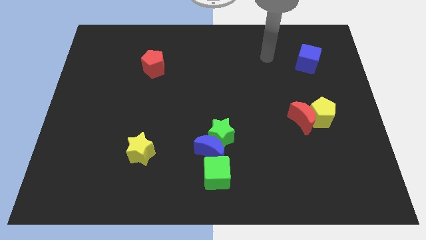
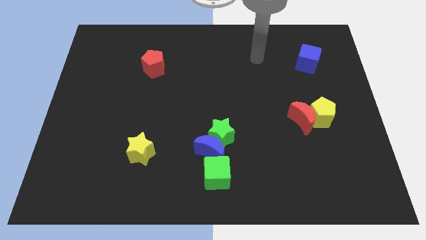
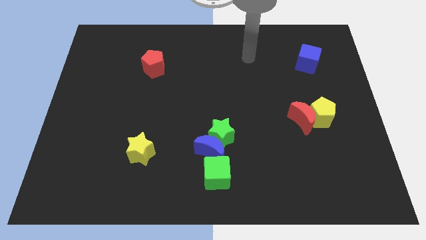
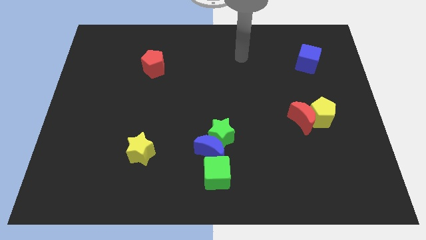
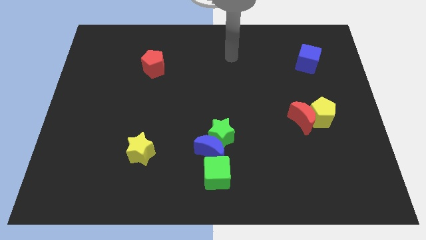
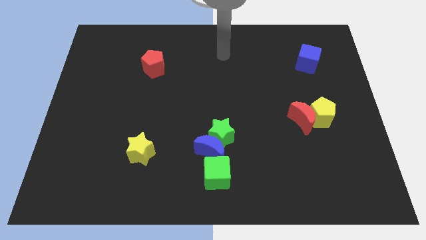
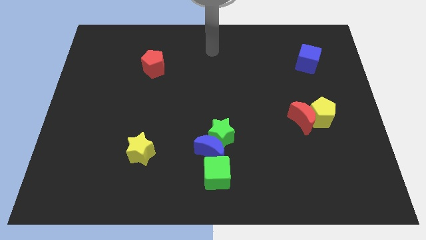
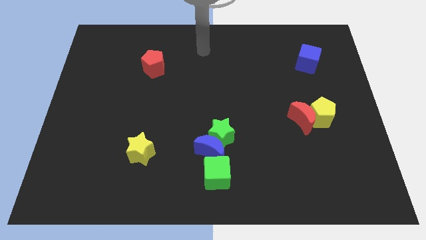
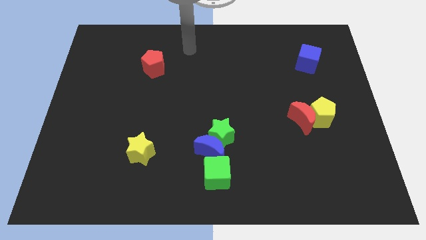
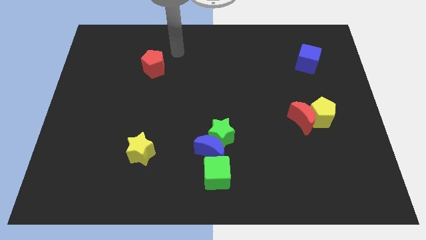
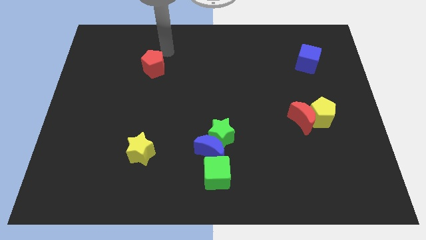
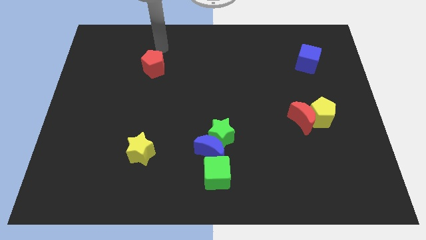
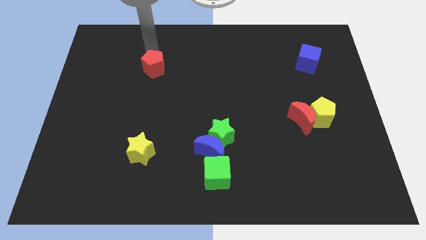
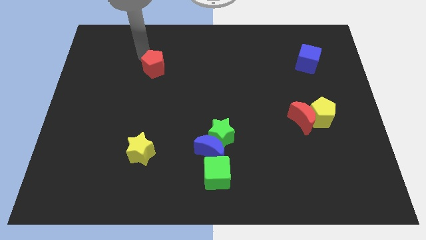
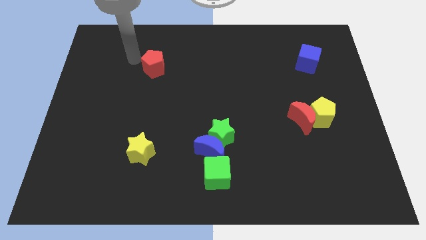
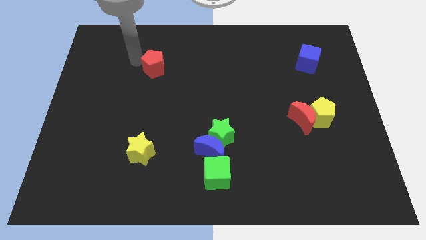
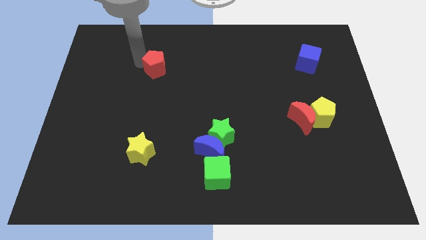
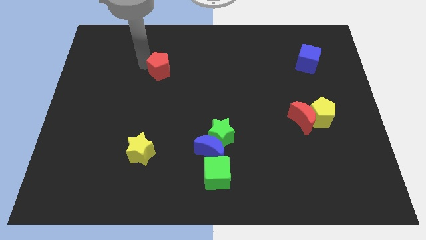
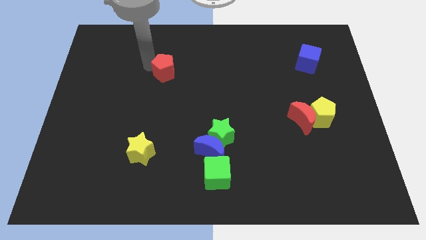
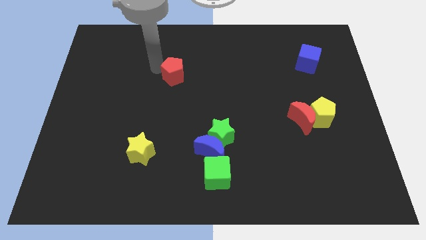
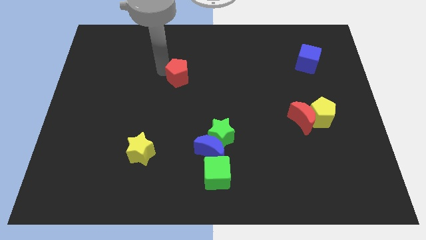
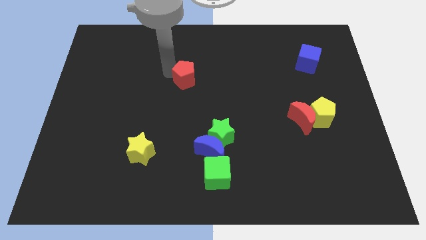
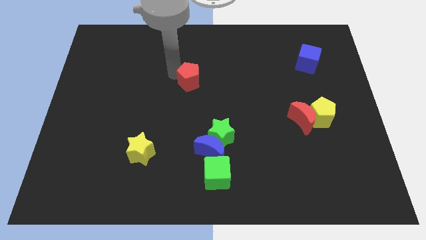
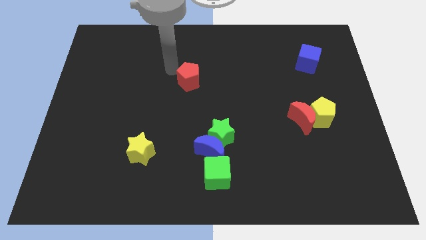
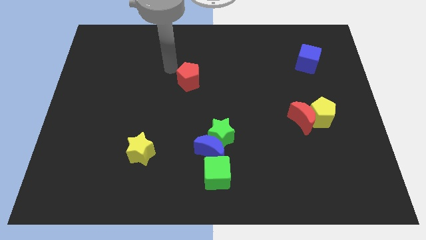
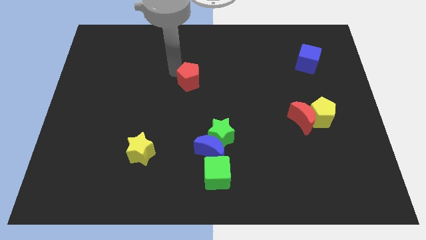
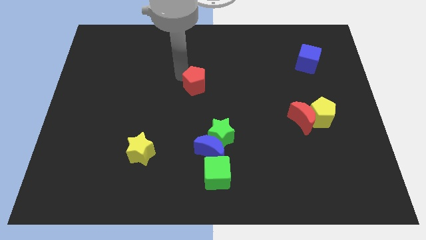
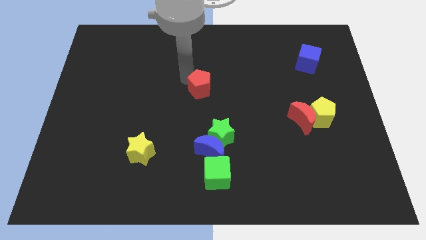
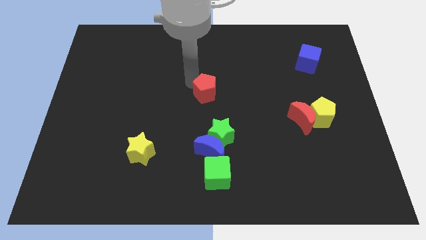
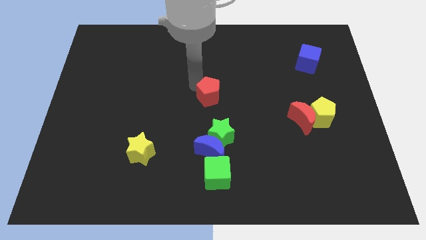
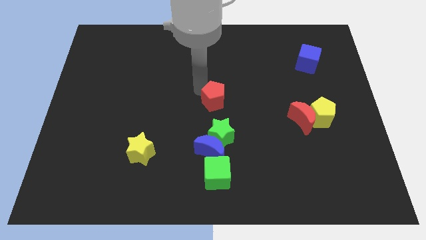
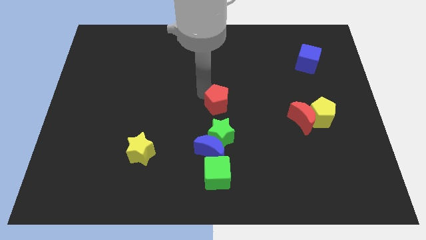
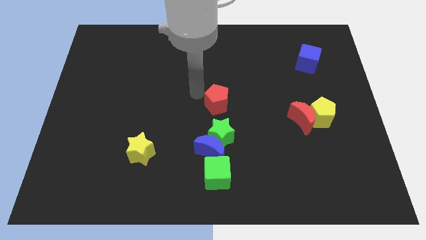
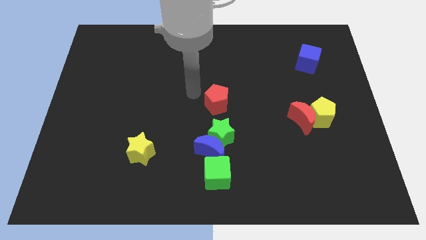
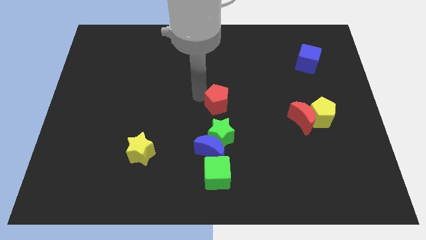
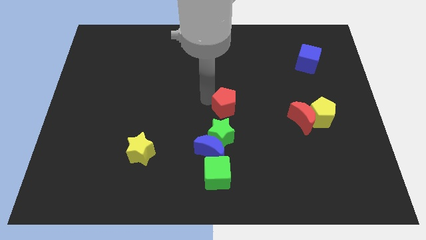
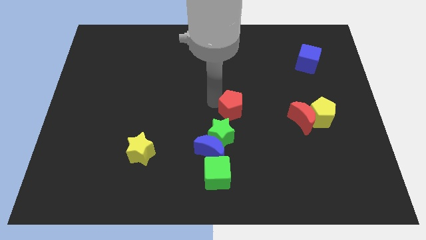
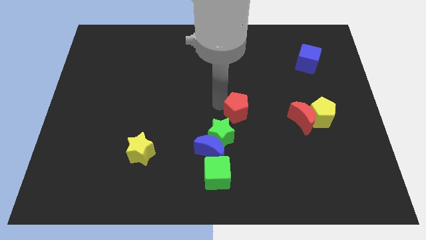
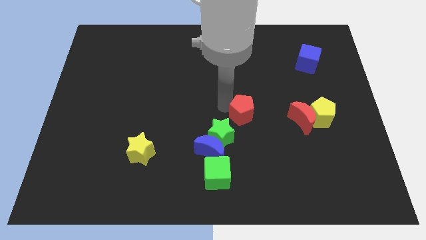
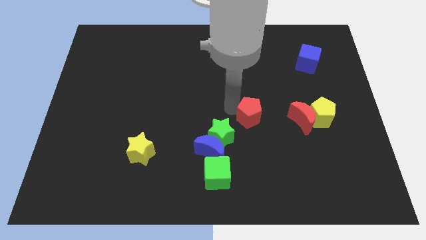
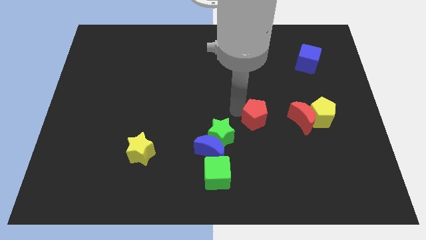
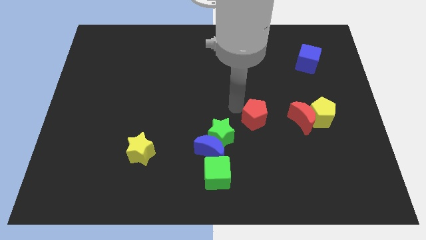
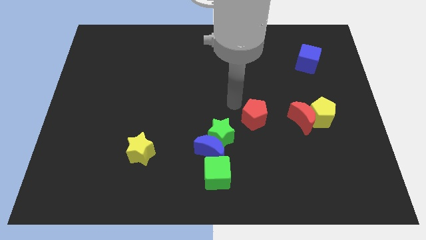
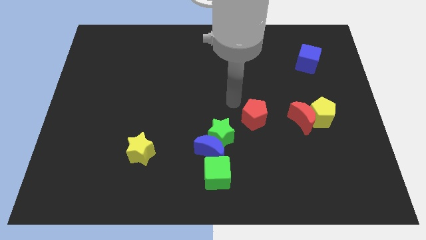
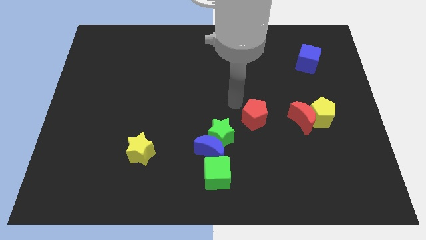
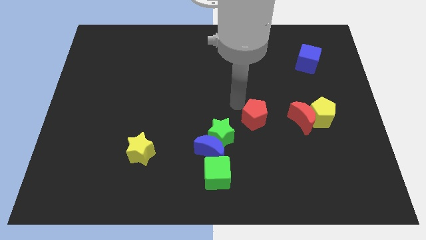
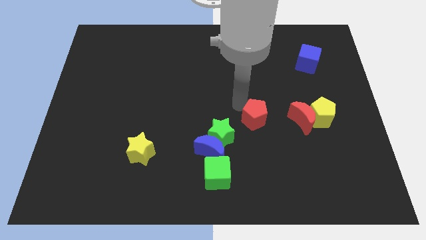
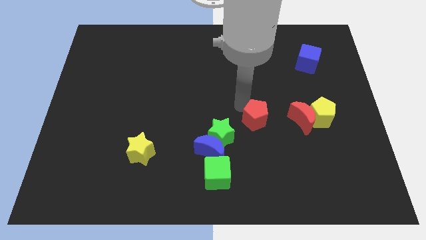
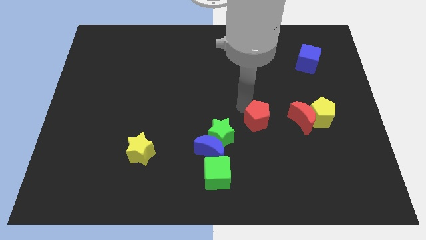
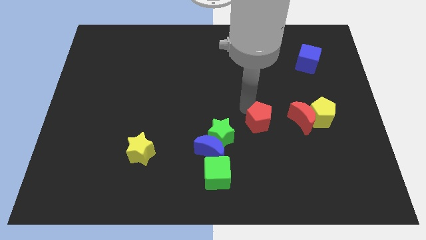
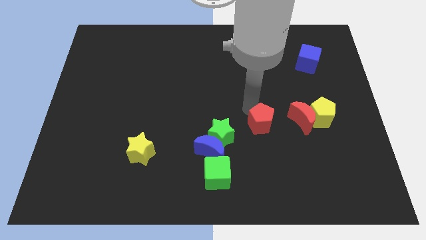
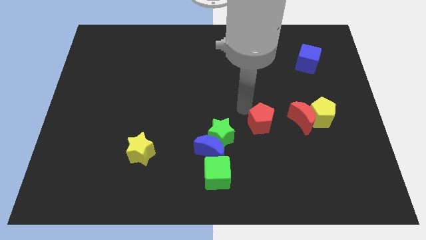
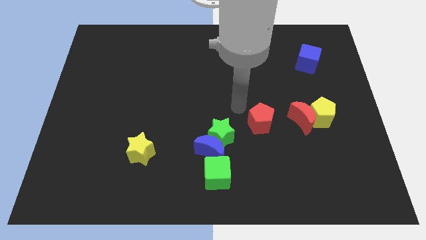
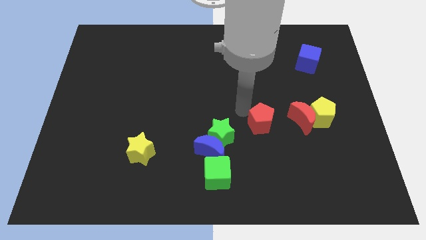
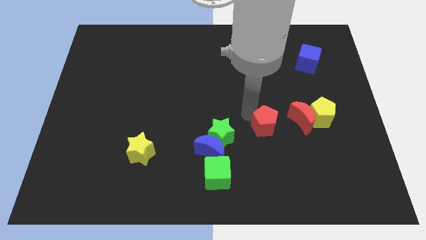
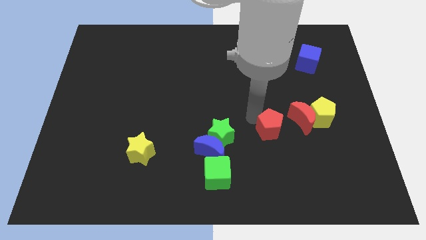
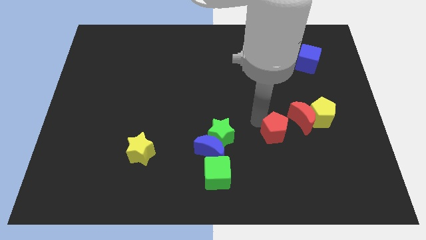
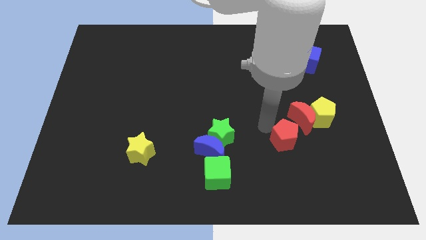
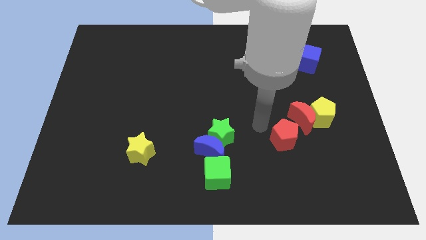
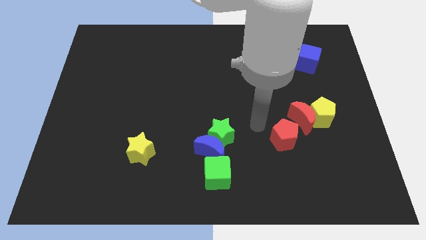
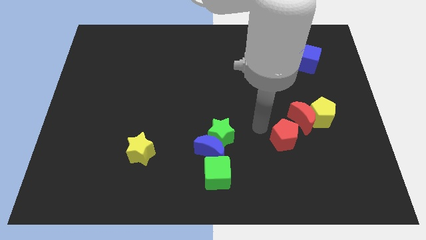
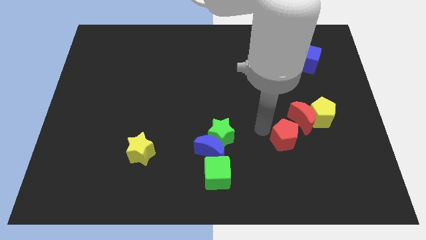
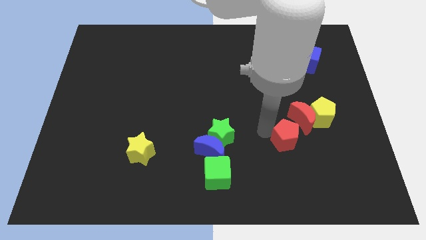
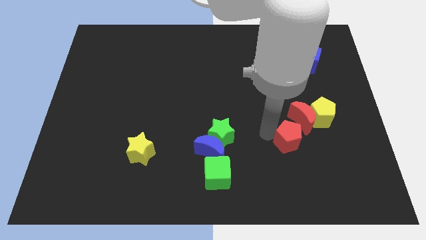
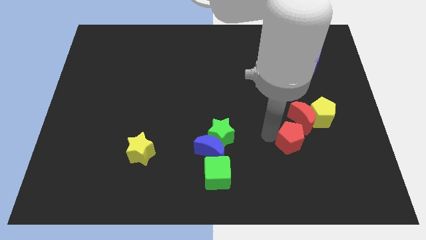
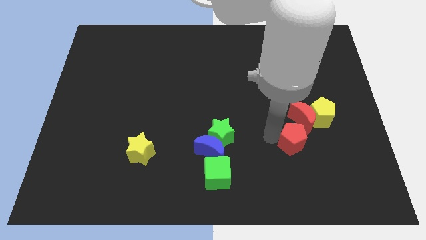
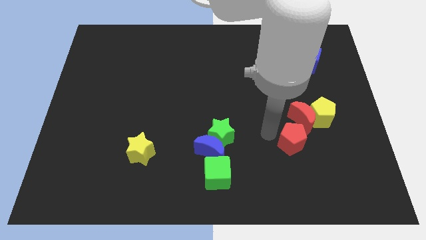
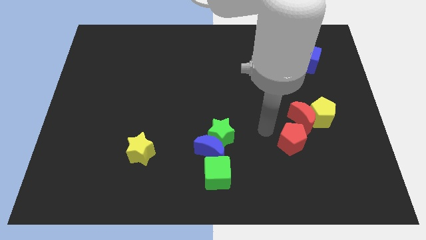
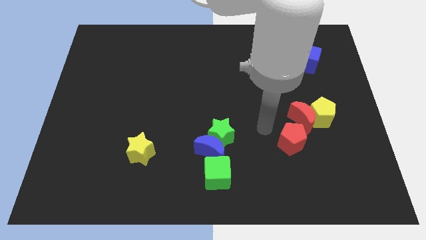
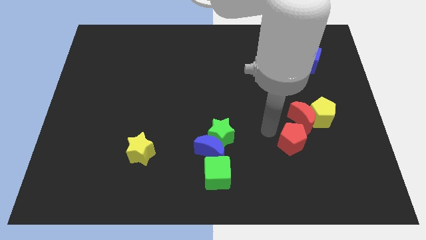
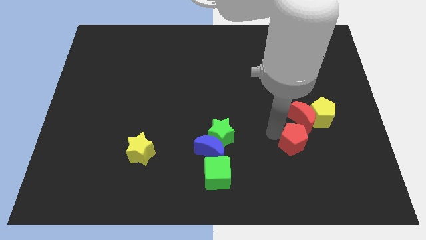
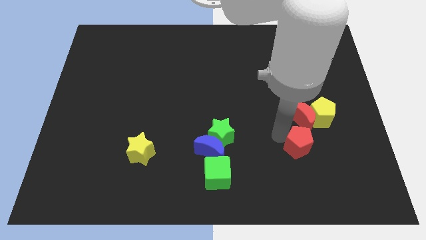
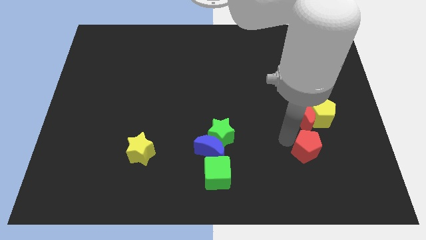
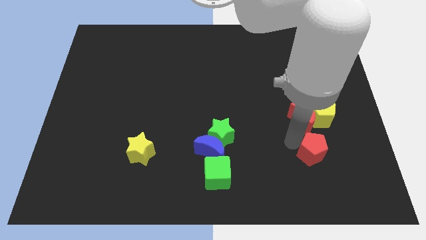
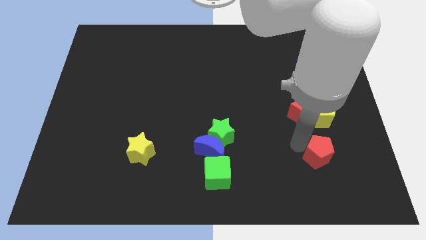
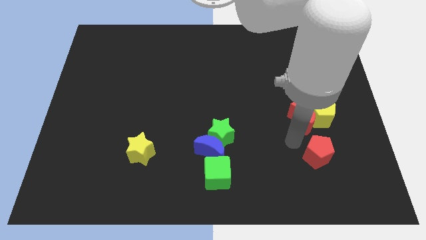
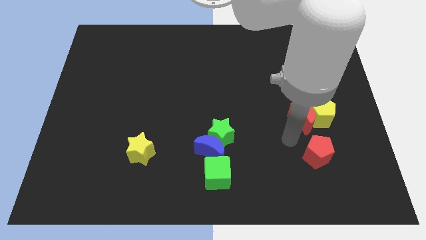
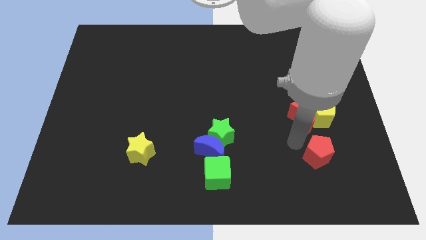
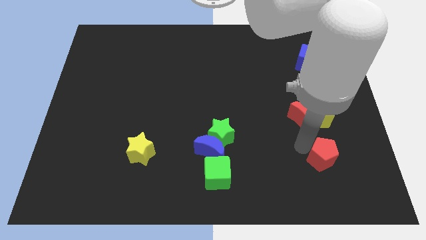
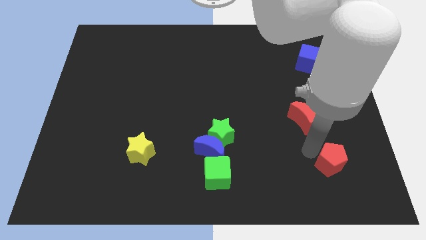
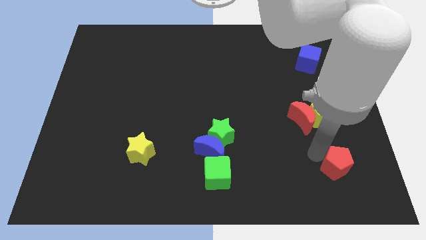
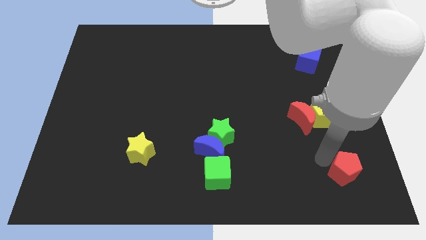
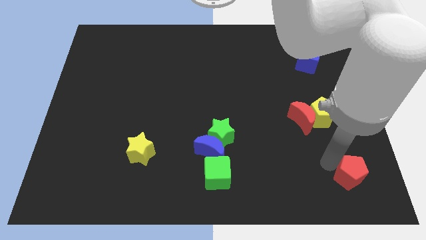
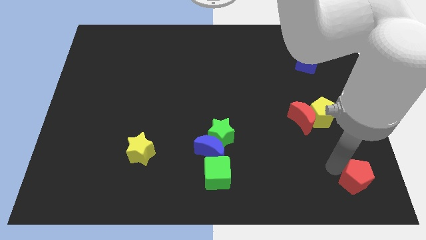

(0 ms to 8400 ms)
push the red pentagon to the bottom right
